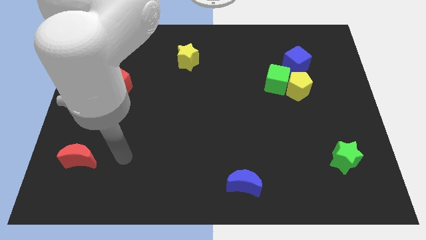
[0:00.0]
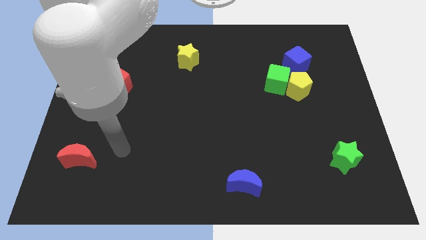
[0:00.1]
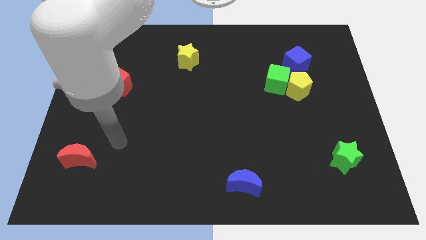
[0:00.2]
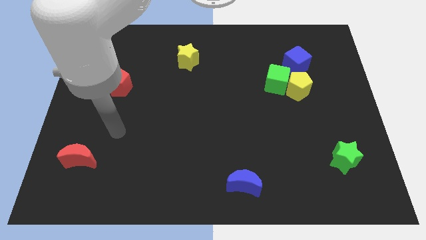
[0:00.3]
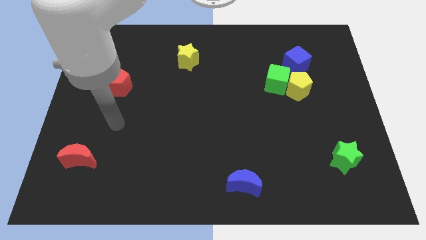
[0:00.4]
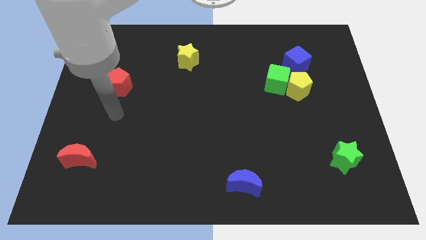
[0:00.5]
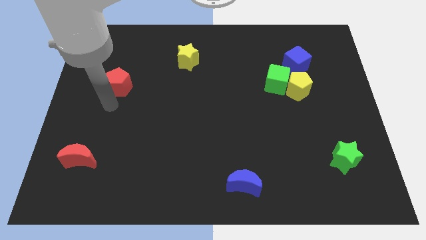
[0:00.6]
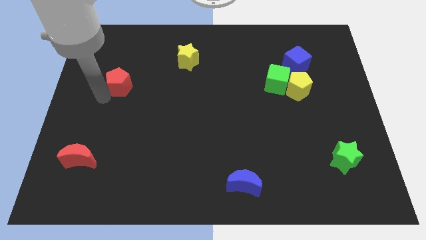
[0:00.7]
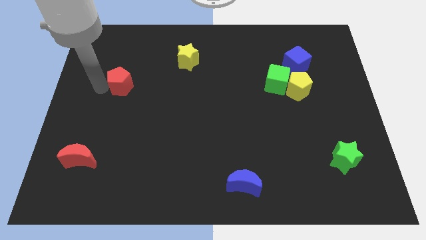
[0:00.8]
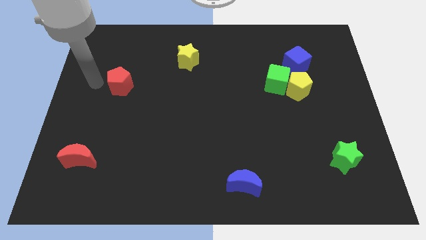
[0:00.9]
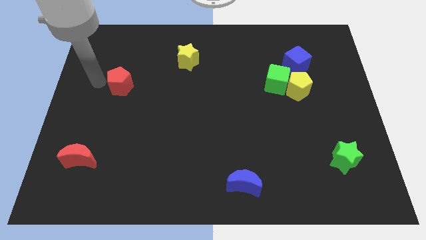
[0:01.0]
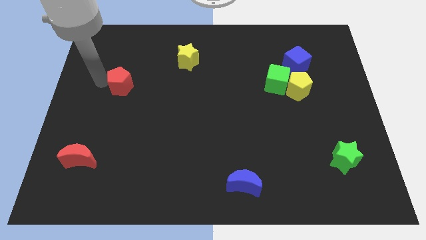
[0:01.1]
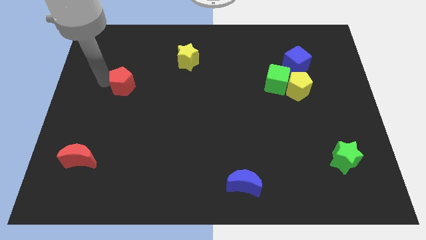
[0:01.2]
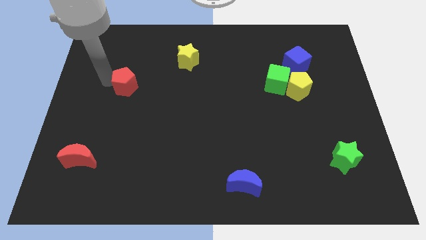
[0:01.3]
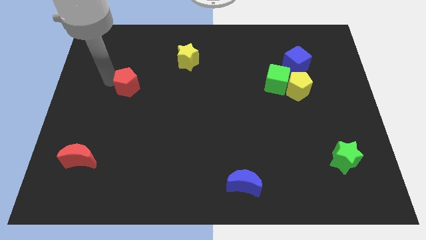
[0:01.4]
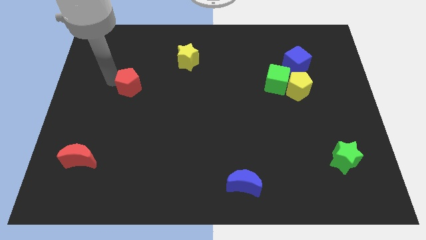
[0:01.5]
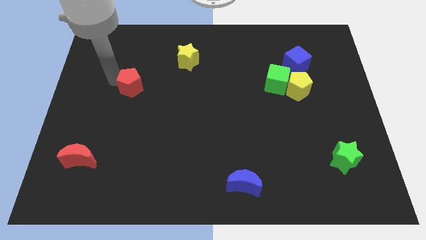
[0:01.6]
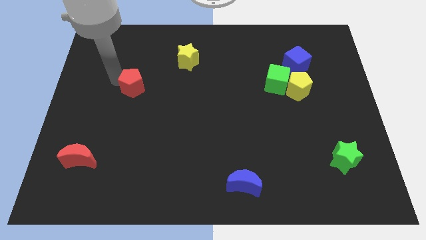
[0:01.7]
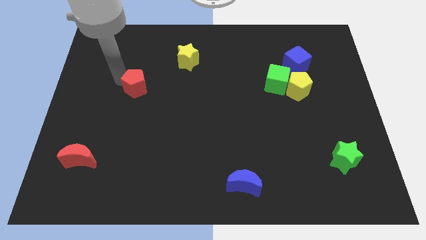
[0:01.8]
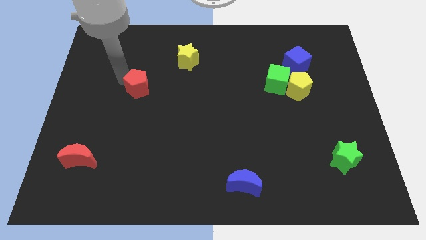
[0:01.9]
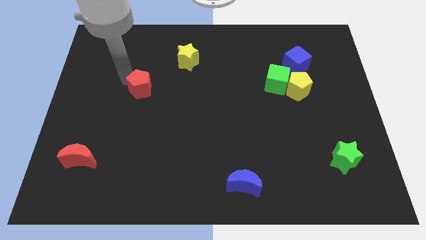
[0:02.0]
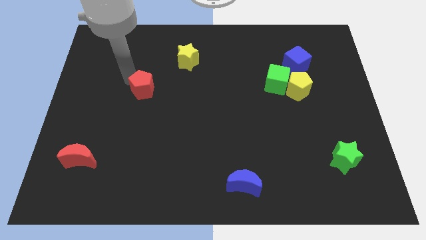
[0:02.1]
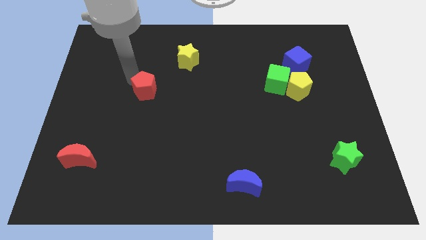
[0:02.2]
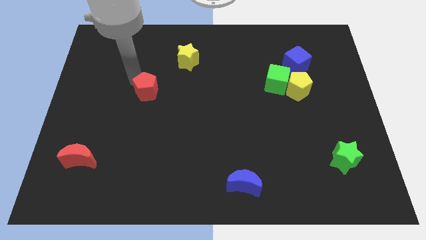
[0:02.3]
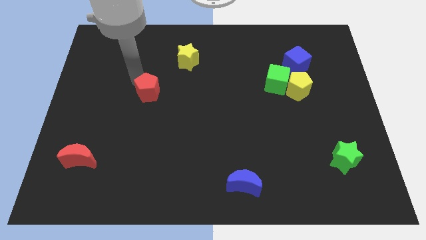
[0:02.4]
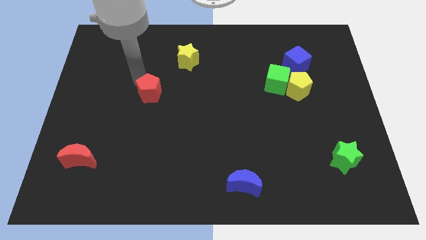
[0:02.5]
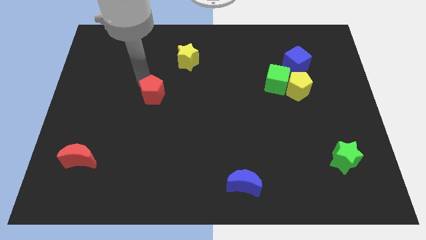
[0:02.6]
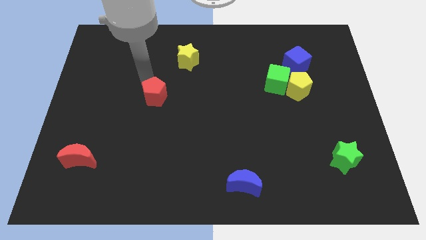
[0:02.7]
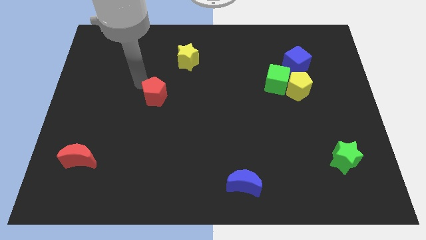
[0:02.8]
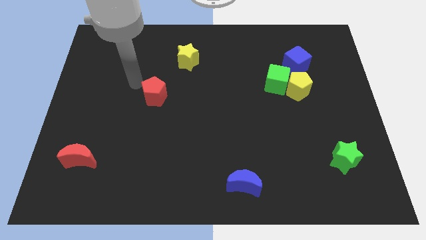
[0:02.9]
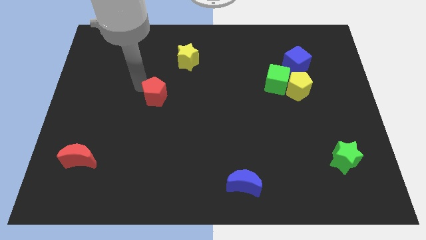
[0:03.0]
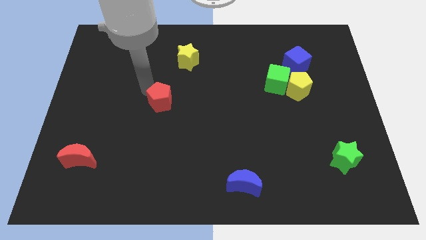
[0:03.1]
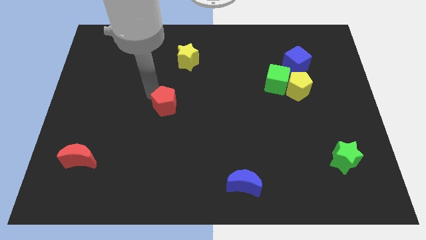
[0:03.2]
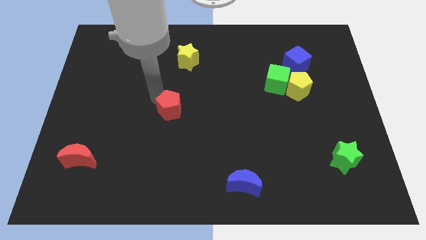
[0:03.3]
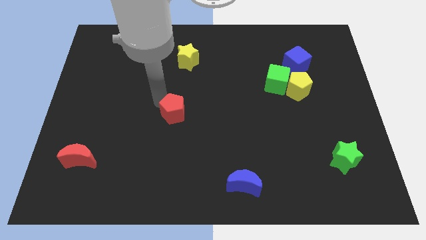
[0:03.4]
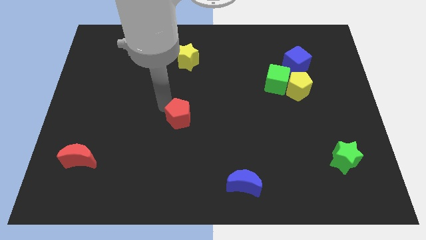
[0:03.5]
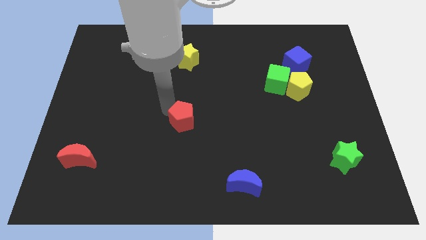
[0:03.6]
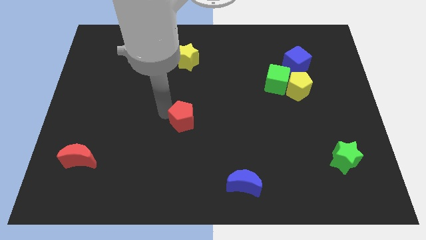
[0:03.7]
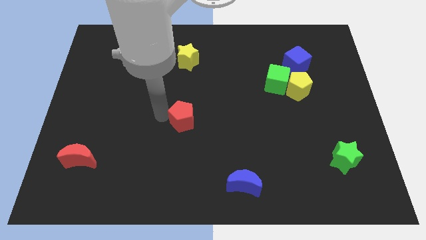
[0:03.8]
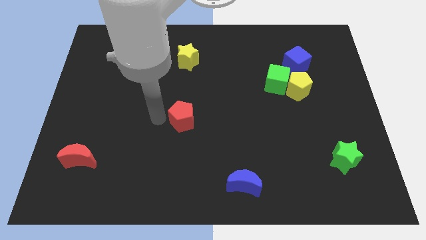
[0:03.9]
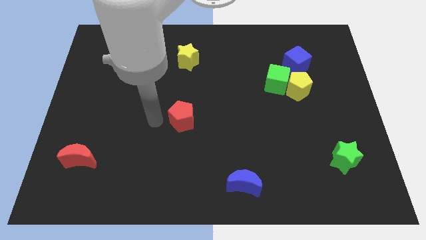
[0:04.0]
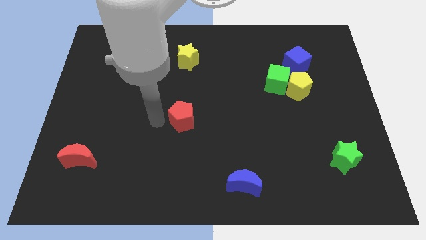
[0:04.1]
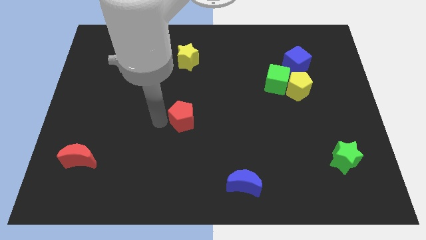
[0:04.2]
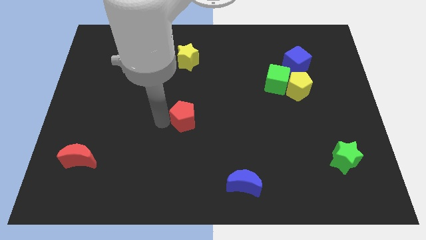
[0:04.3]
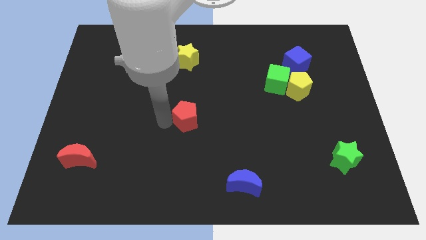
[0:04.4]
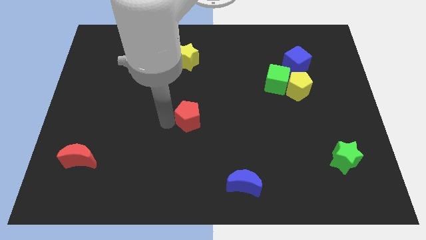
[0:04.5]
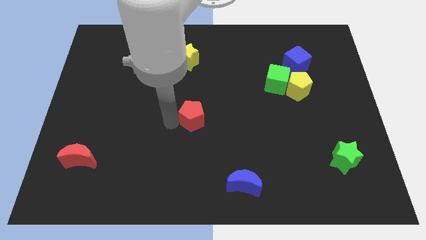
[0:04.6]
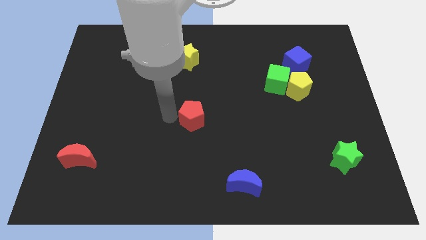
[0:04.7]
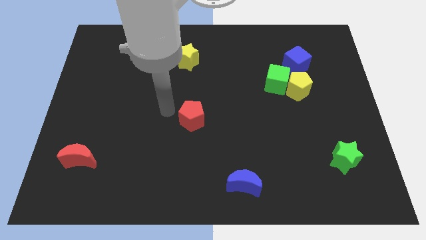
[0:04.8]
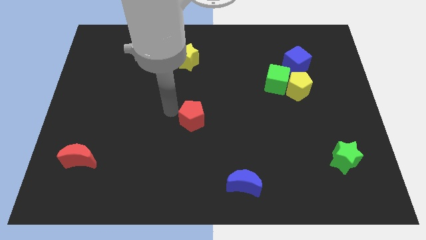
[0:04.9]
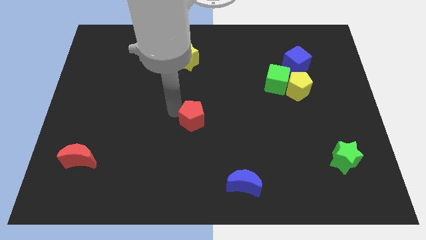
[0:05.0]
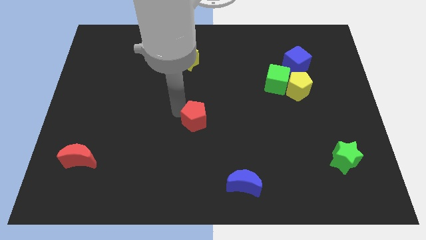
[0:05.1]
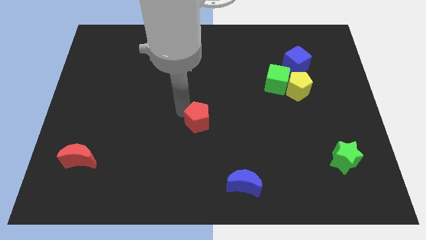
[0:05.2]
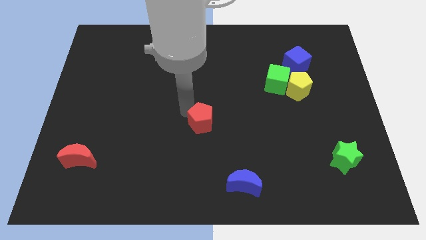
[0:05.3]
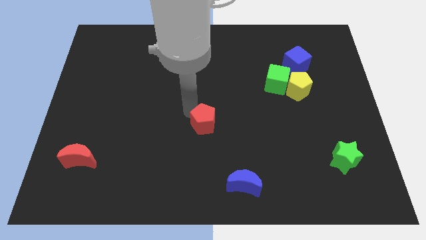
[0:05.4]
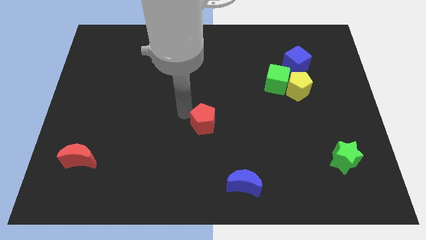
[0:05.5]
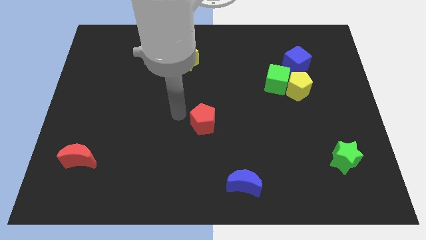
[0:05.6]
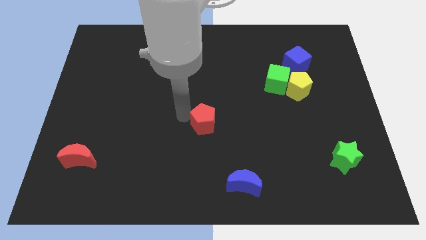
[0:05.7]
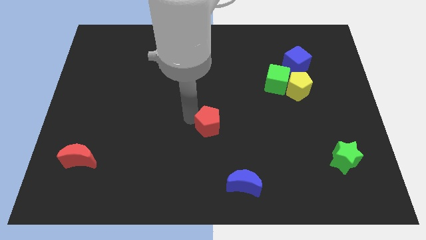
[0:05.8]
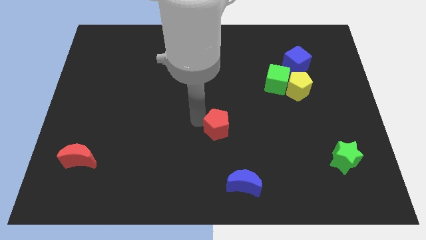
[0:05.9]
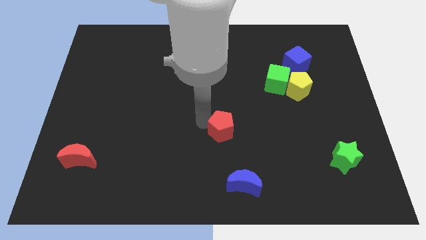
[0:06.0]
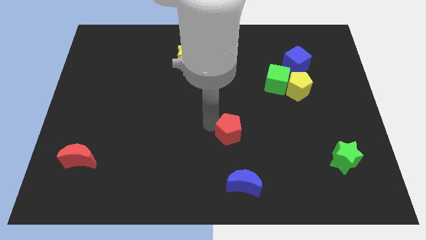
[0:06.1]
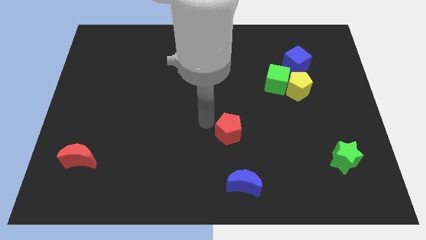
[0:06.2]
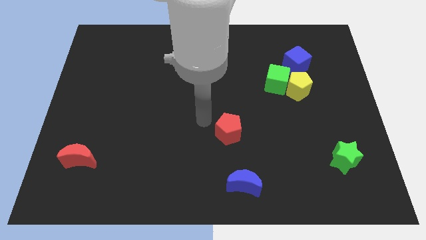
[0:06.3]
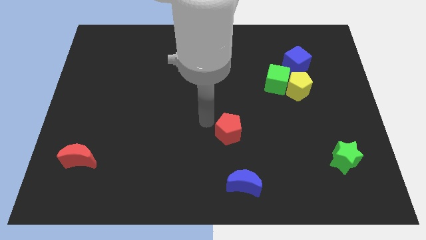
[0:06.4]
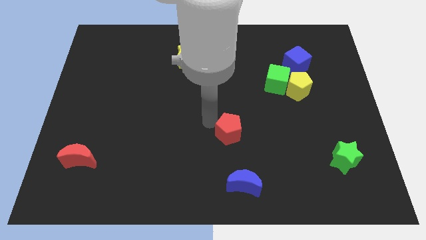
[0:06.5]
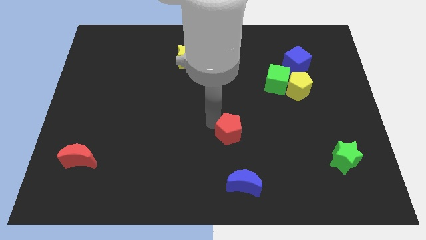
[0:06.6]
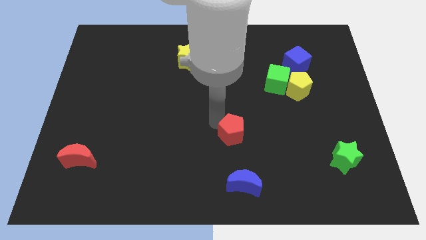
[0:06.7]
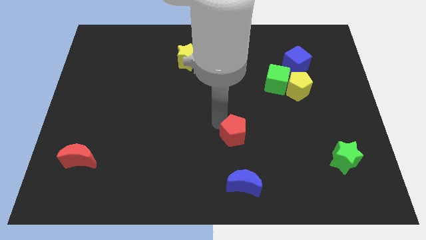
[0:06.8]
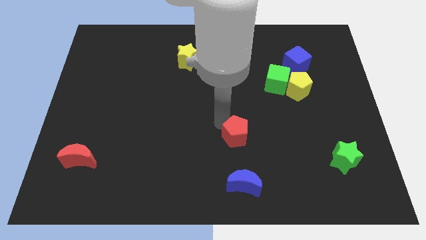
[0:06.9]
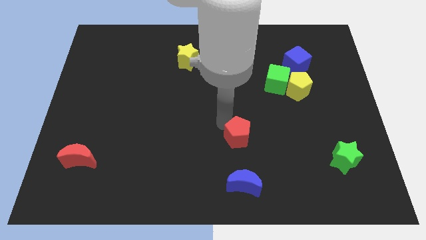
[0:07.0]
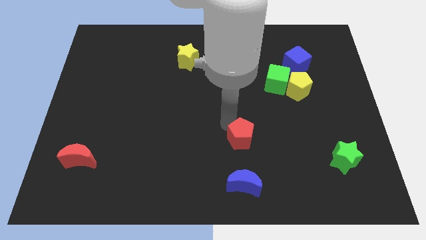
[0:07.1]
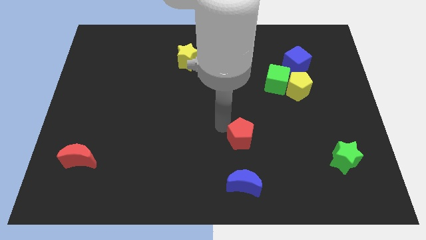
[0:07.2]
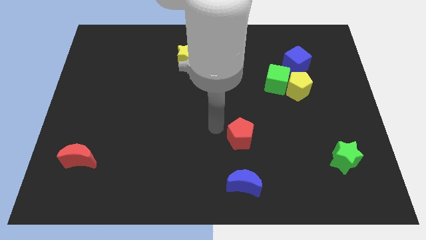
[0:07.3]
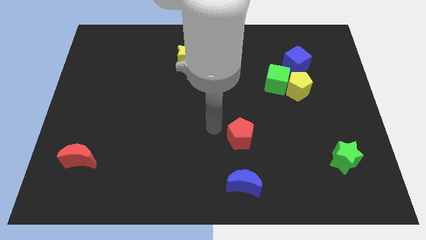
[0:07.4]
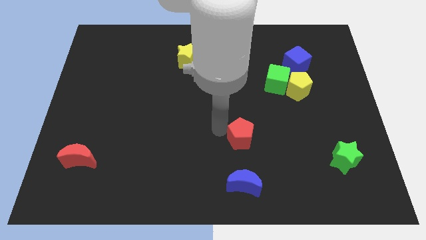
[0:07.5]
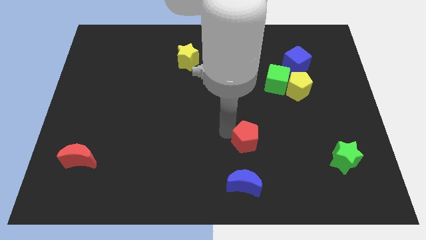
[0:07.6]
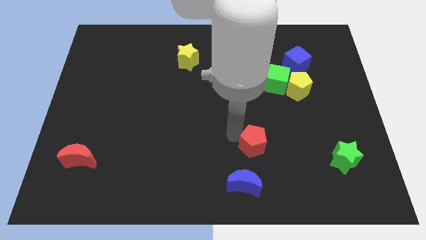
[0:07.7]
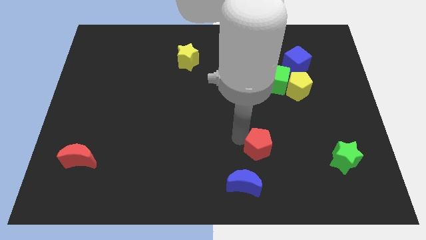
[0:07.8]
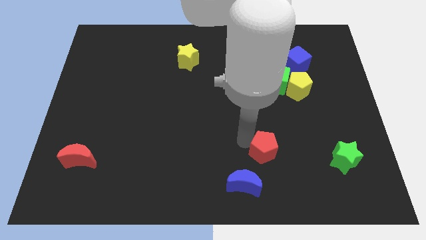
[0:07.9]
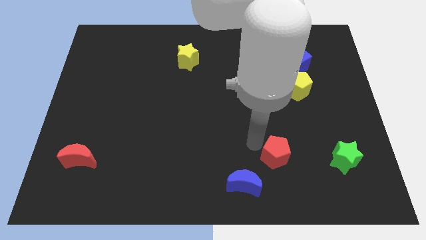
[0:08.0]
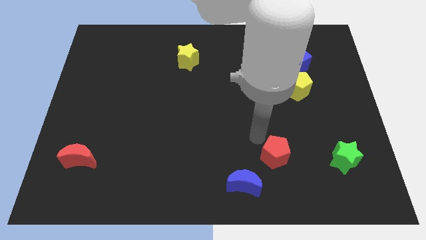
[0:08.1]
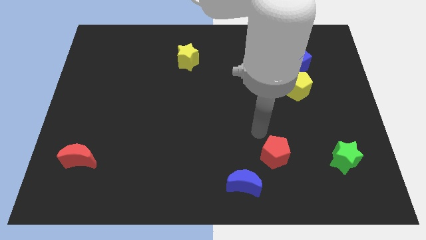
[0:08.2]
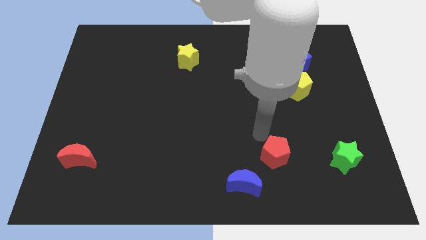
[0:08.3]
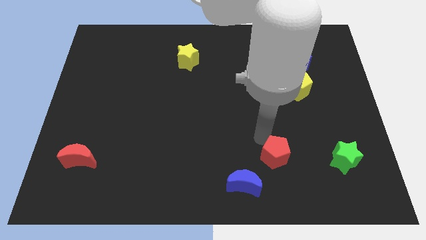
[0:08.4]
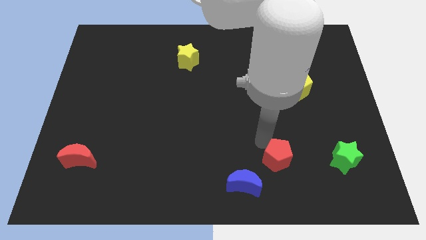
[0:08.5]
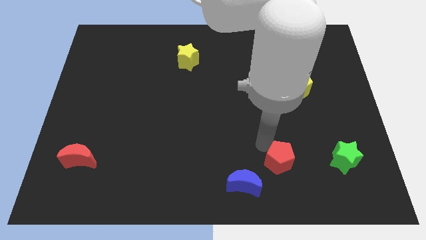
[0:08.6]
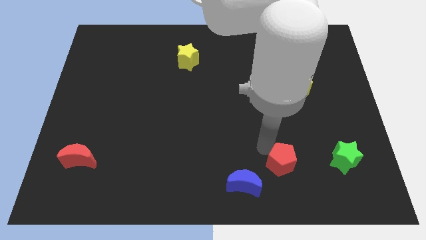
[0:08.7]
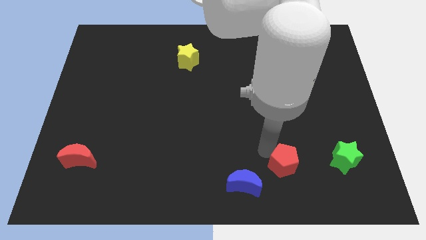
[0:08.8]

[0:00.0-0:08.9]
move the red pentagon just right of the blue moon
